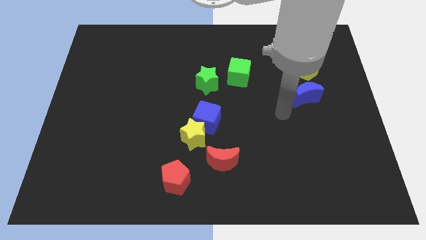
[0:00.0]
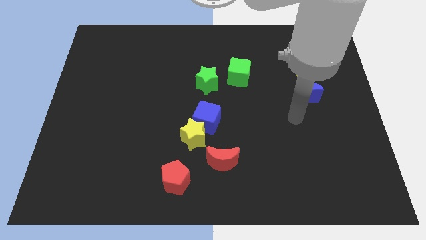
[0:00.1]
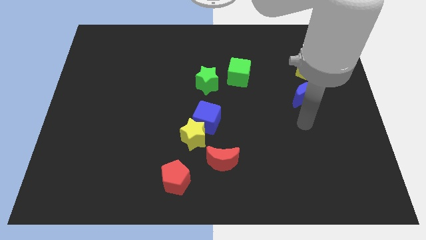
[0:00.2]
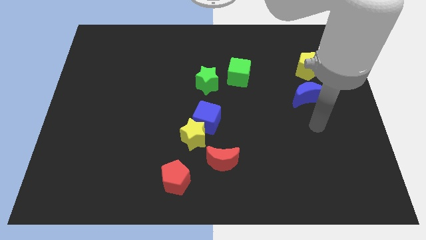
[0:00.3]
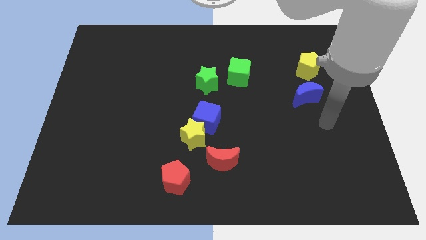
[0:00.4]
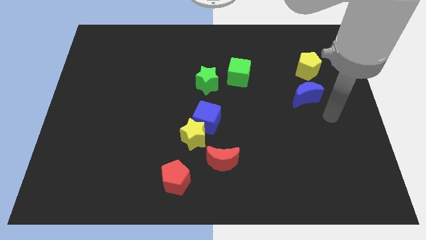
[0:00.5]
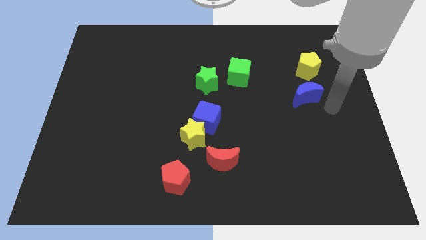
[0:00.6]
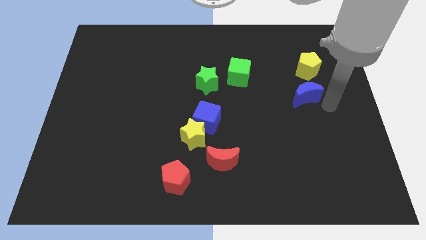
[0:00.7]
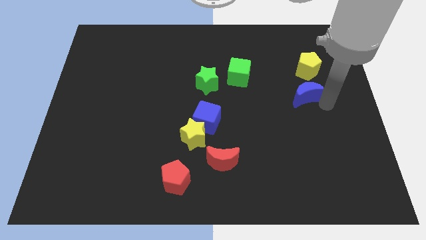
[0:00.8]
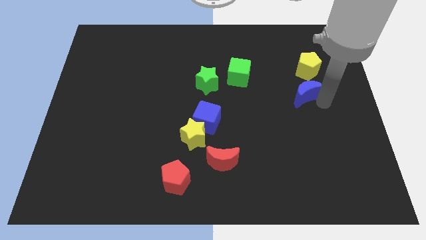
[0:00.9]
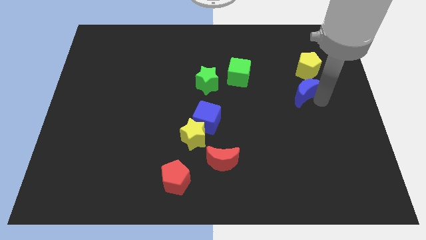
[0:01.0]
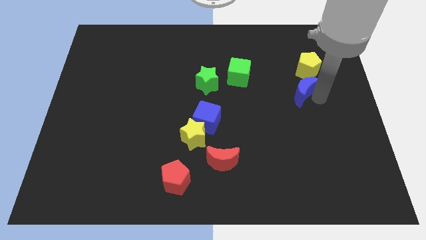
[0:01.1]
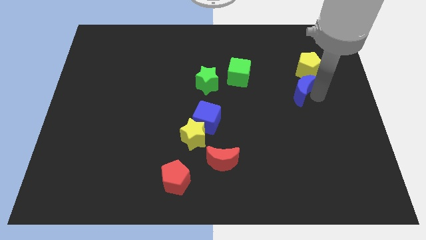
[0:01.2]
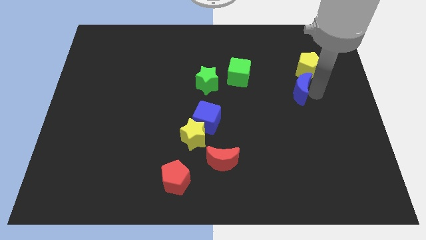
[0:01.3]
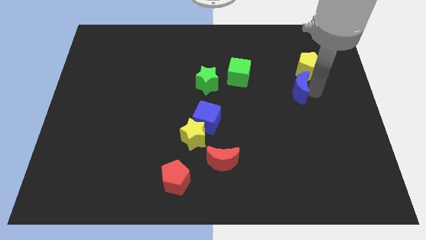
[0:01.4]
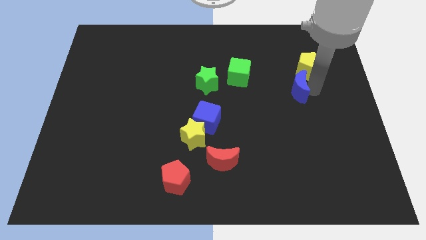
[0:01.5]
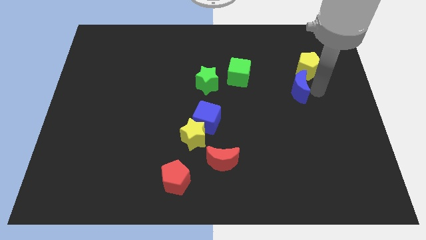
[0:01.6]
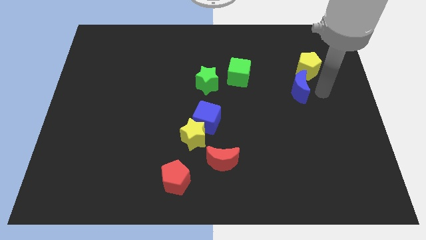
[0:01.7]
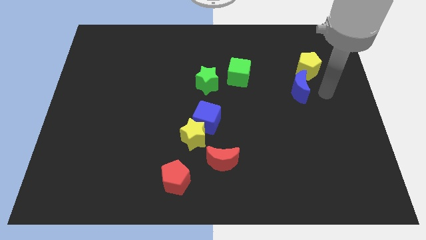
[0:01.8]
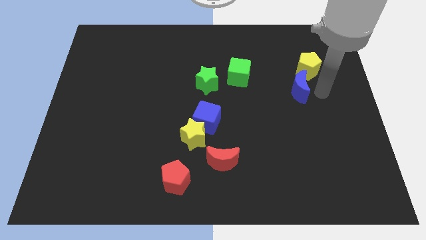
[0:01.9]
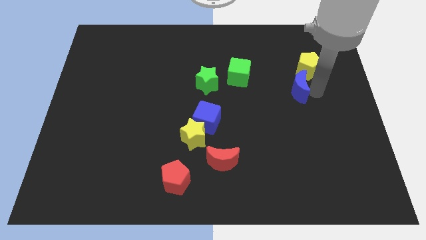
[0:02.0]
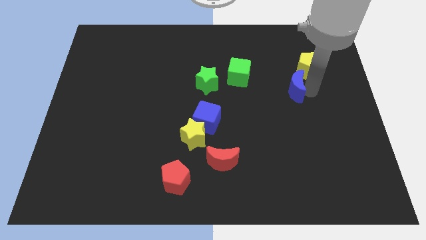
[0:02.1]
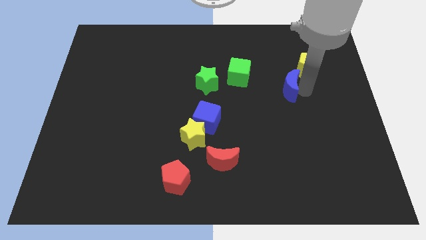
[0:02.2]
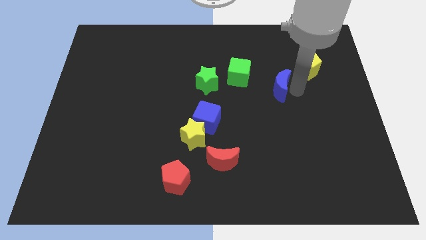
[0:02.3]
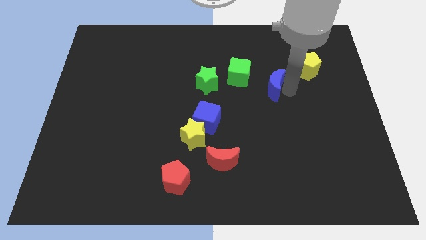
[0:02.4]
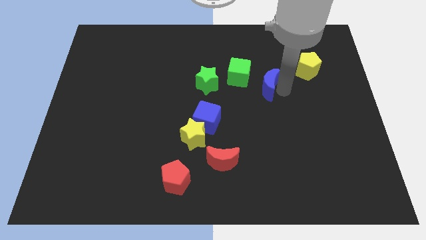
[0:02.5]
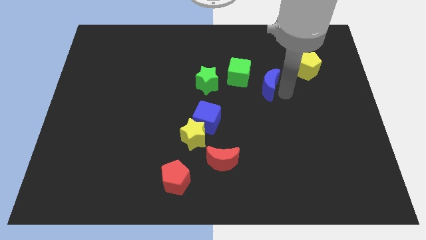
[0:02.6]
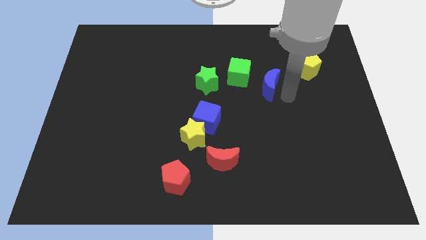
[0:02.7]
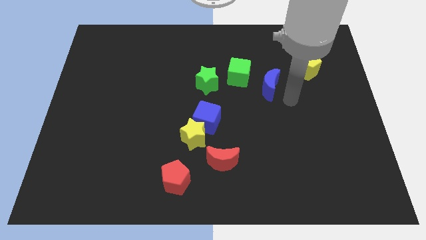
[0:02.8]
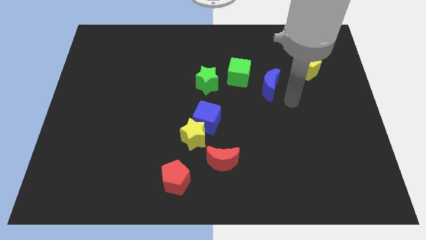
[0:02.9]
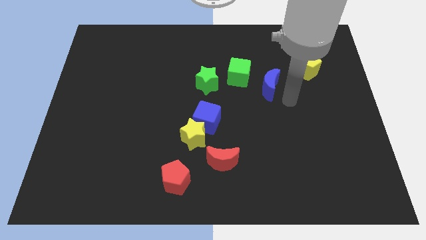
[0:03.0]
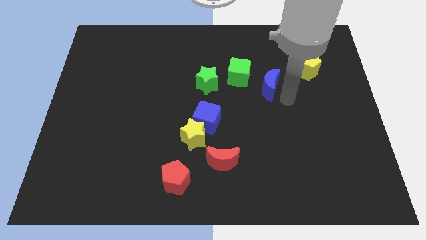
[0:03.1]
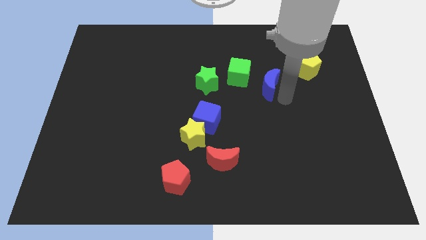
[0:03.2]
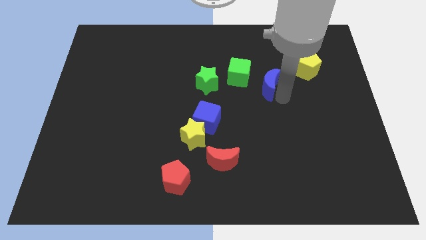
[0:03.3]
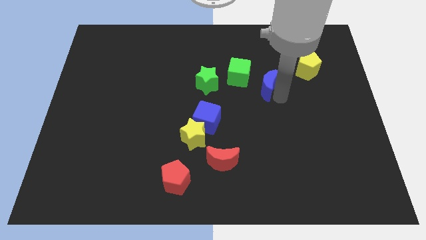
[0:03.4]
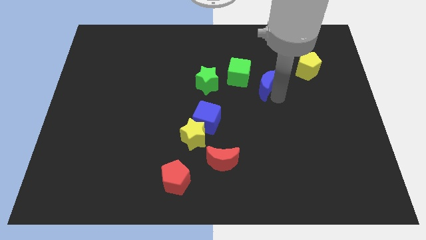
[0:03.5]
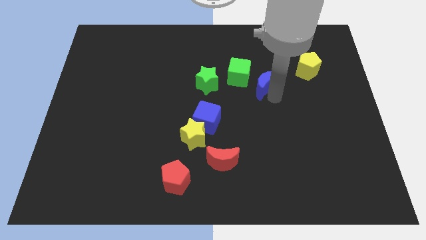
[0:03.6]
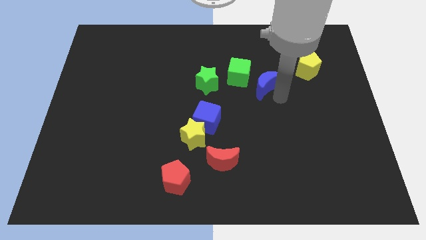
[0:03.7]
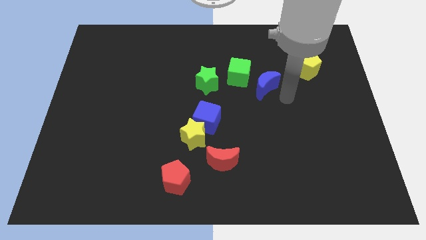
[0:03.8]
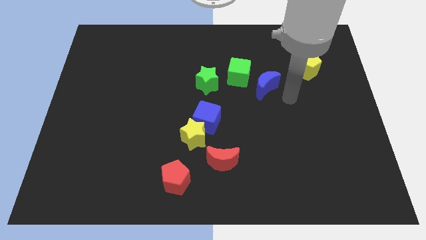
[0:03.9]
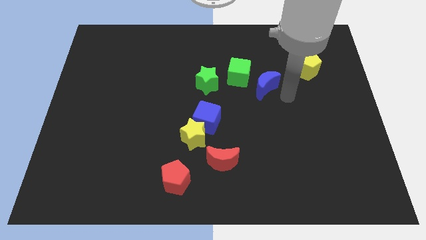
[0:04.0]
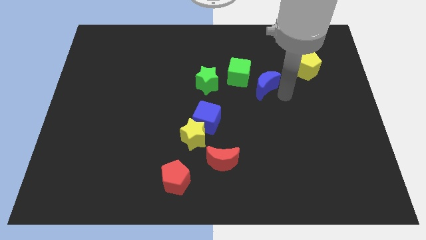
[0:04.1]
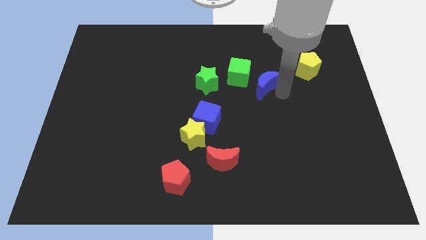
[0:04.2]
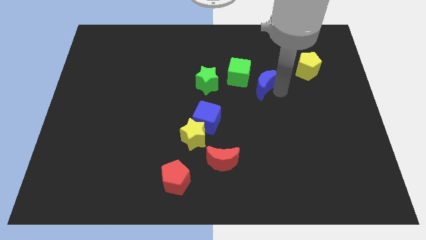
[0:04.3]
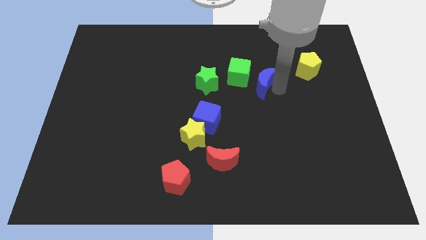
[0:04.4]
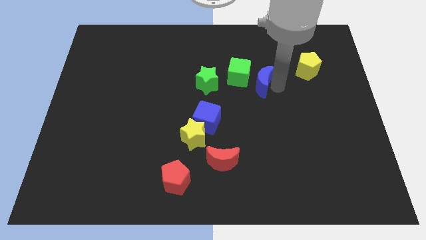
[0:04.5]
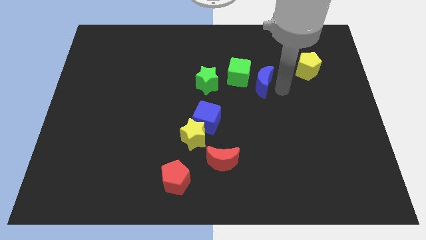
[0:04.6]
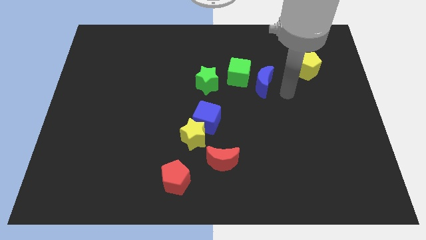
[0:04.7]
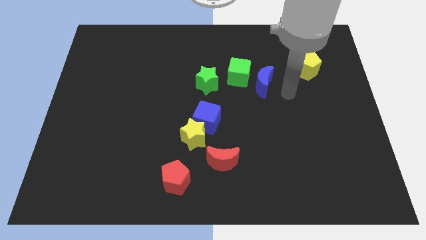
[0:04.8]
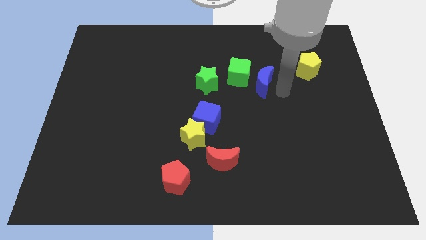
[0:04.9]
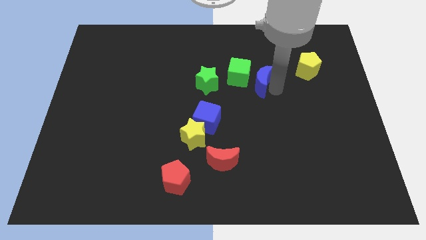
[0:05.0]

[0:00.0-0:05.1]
put the blue moon next to the green cube

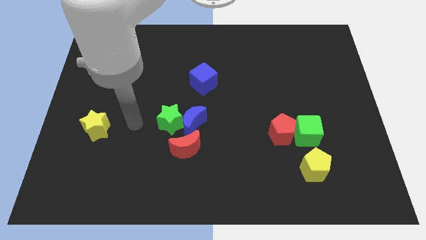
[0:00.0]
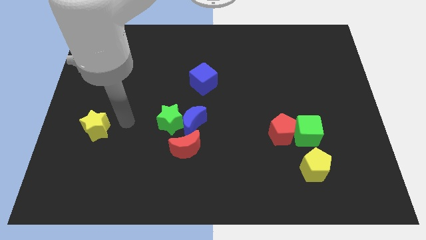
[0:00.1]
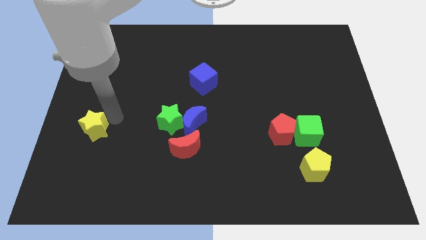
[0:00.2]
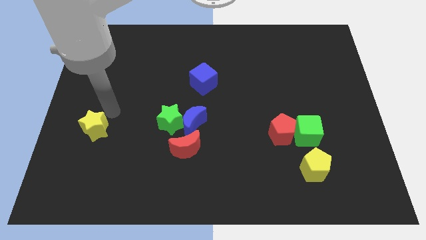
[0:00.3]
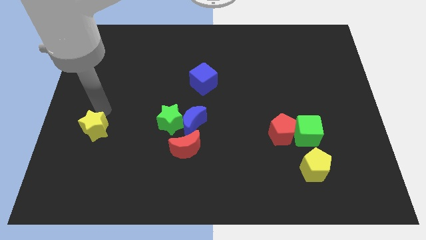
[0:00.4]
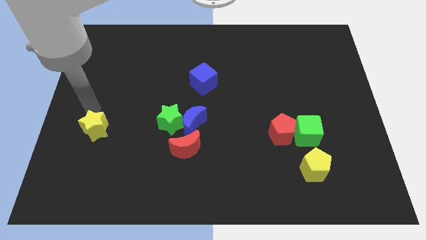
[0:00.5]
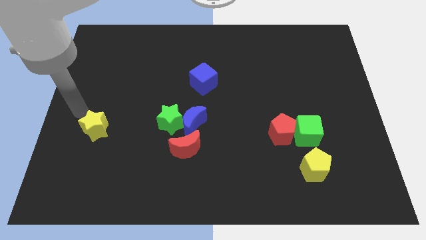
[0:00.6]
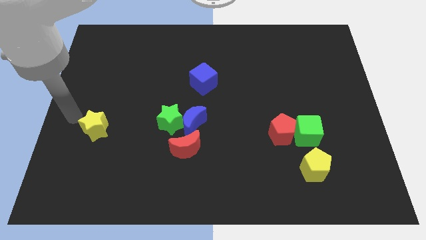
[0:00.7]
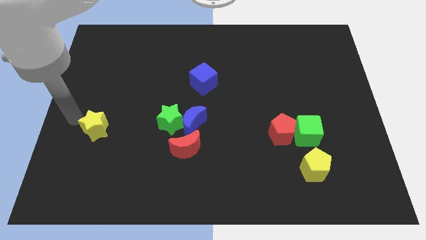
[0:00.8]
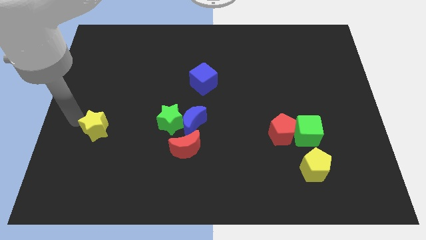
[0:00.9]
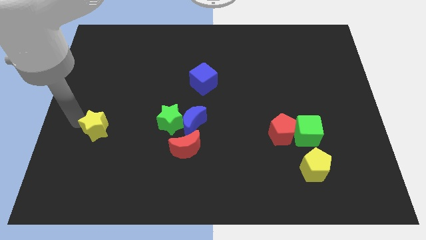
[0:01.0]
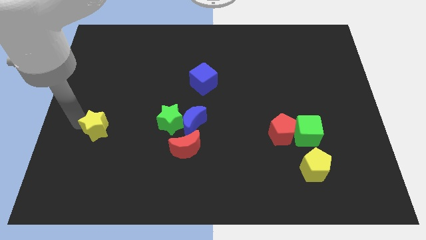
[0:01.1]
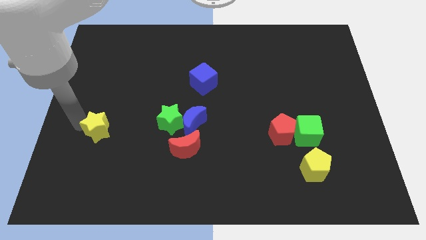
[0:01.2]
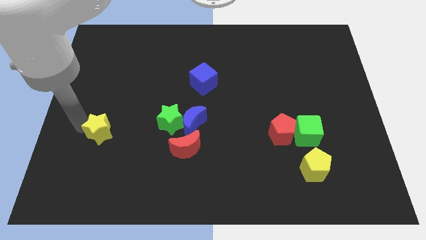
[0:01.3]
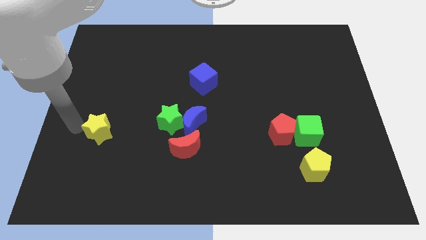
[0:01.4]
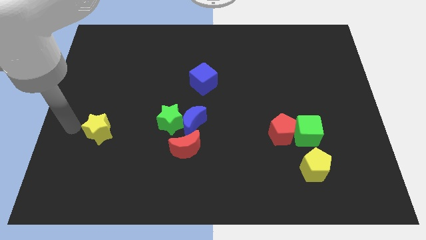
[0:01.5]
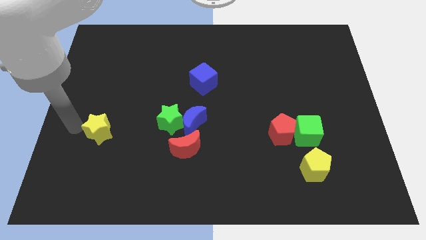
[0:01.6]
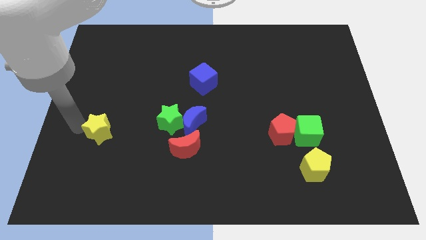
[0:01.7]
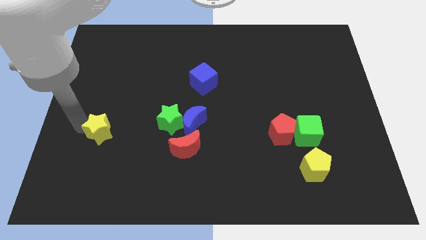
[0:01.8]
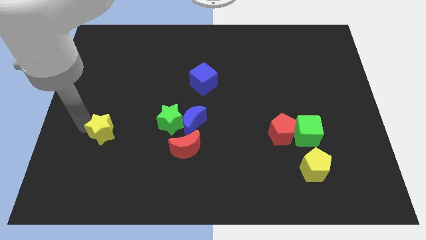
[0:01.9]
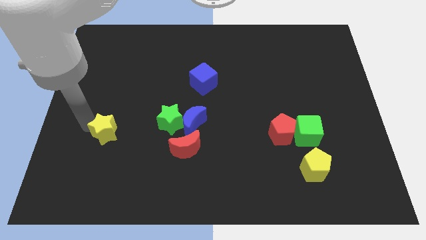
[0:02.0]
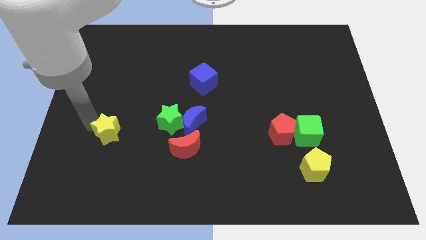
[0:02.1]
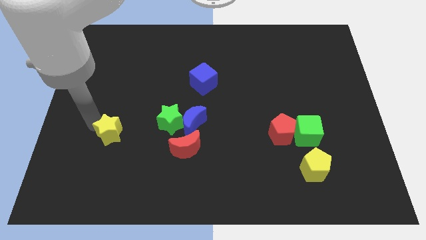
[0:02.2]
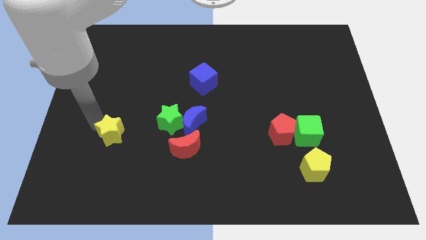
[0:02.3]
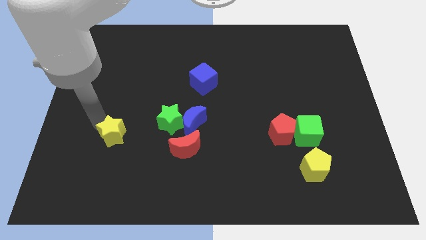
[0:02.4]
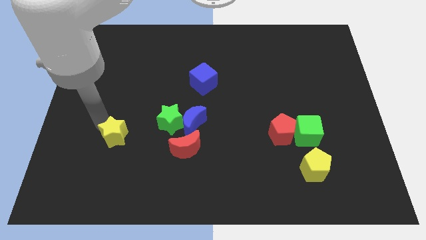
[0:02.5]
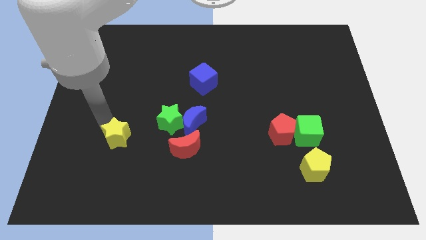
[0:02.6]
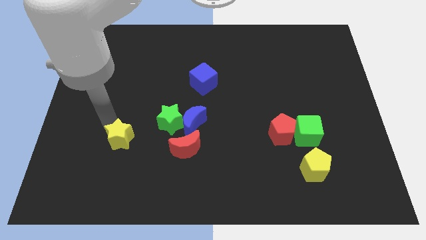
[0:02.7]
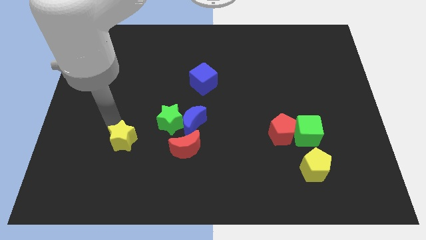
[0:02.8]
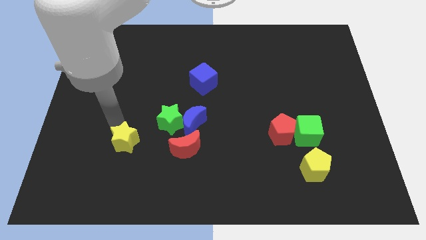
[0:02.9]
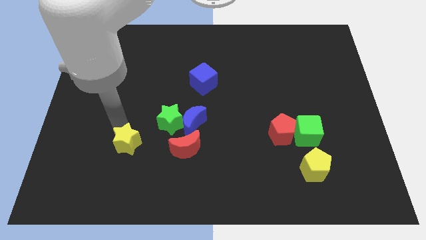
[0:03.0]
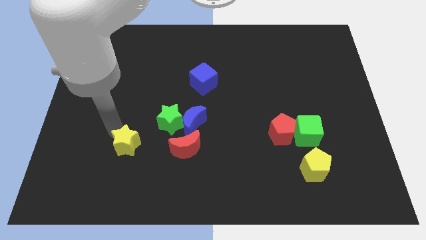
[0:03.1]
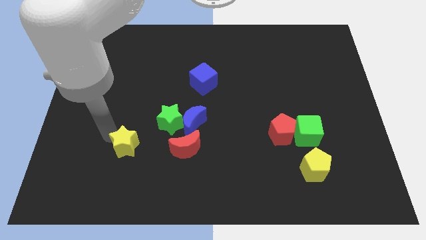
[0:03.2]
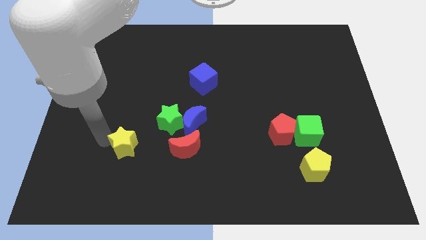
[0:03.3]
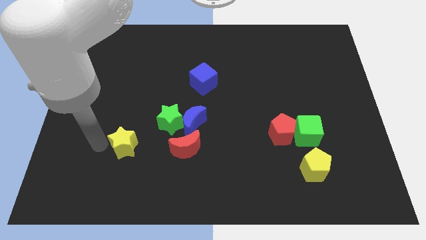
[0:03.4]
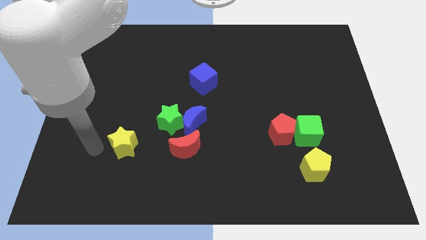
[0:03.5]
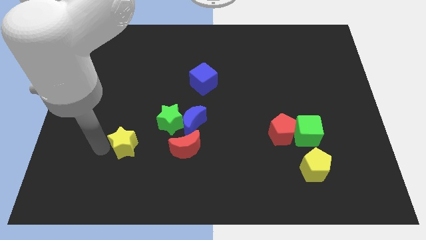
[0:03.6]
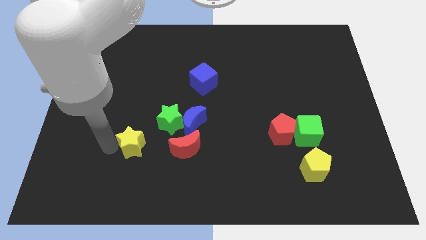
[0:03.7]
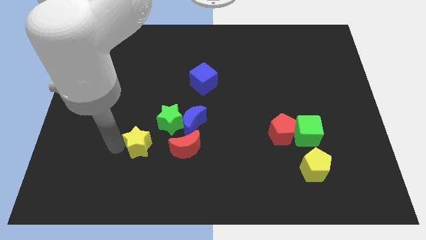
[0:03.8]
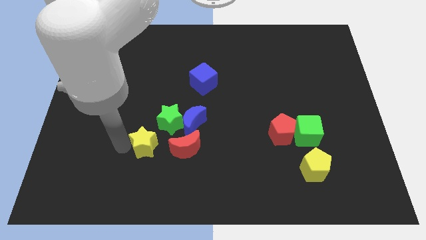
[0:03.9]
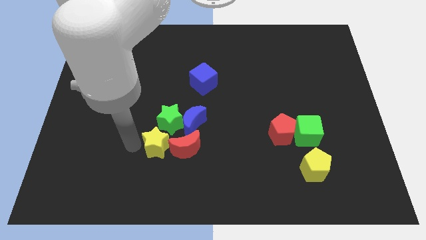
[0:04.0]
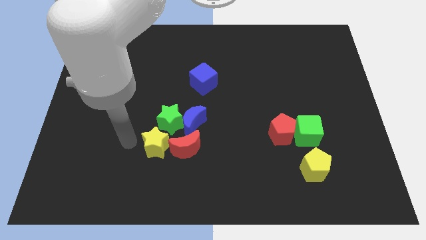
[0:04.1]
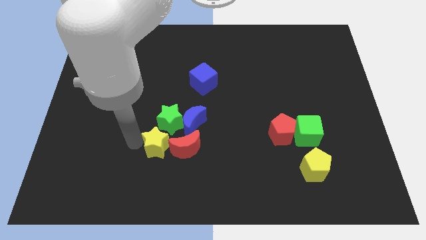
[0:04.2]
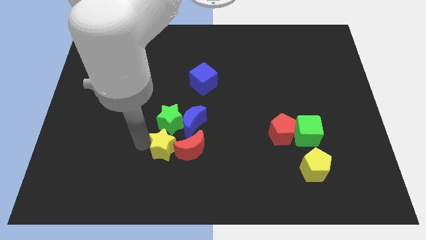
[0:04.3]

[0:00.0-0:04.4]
push the yellow star to the red moon
